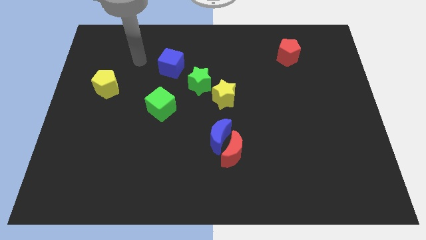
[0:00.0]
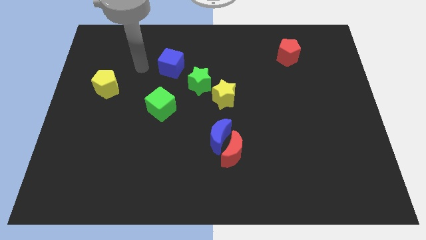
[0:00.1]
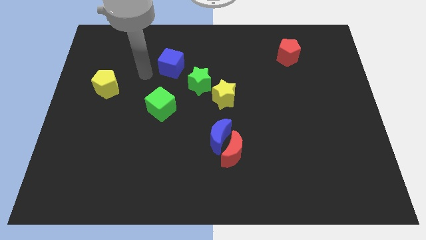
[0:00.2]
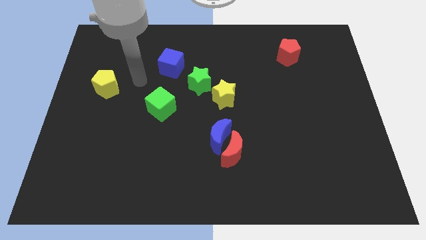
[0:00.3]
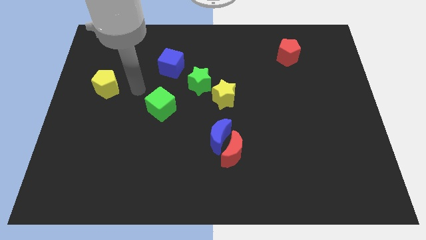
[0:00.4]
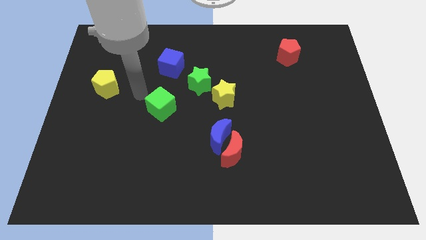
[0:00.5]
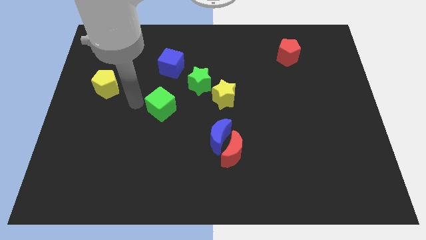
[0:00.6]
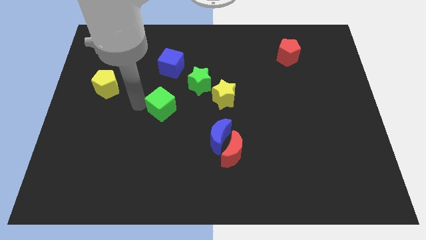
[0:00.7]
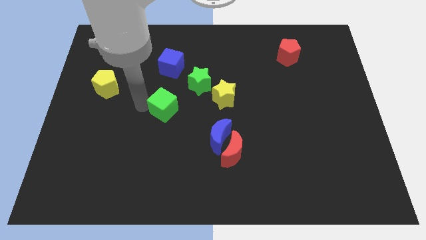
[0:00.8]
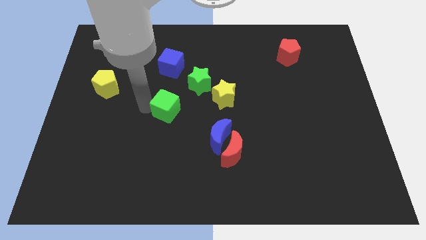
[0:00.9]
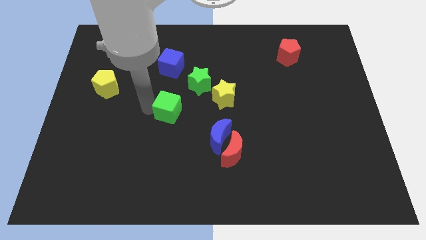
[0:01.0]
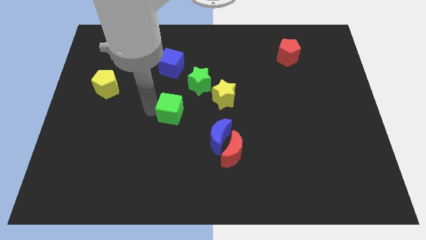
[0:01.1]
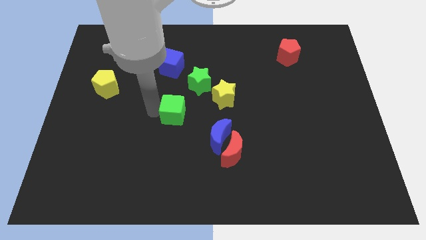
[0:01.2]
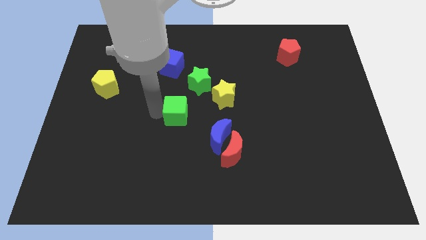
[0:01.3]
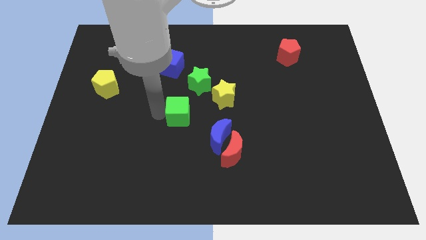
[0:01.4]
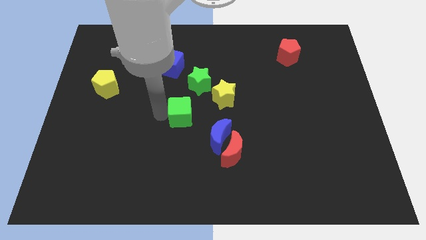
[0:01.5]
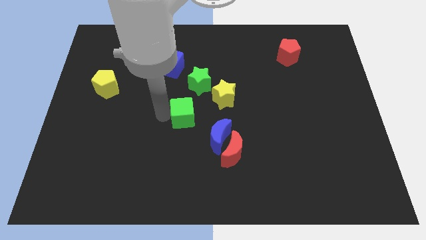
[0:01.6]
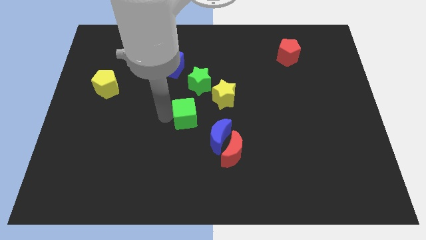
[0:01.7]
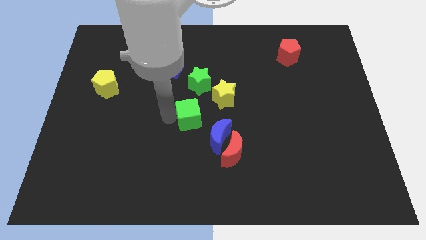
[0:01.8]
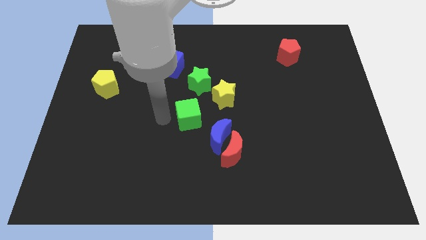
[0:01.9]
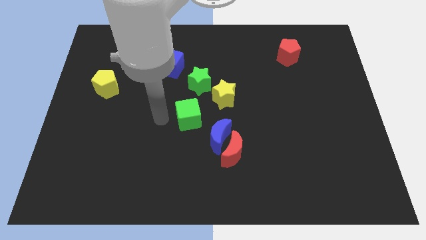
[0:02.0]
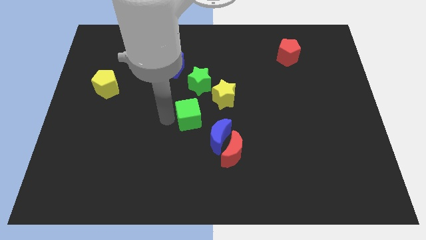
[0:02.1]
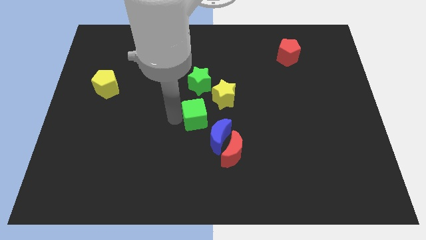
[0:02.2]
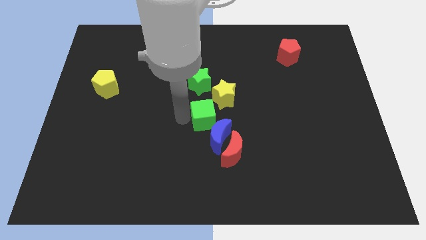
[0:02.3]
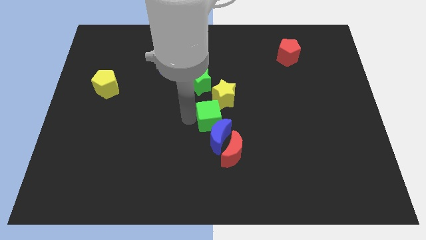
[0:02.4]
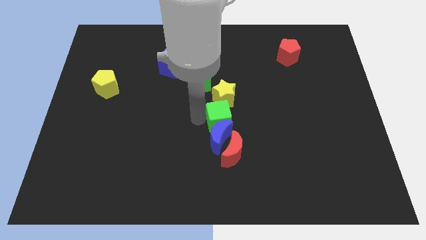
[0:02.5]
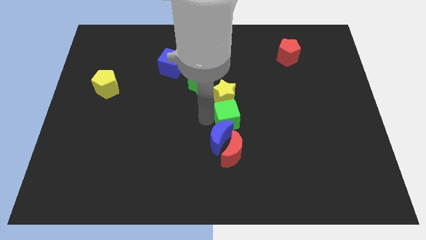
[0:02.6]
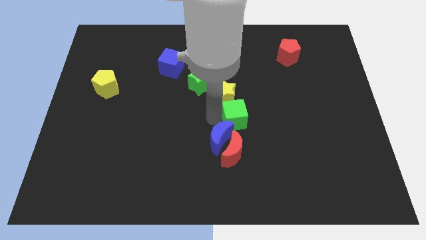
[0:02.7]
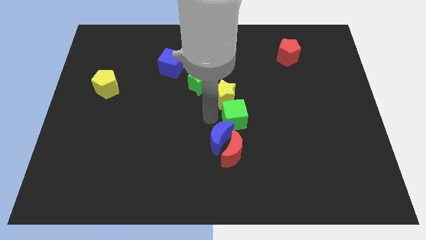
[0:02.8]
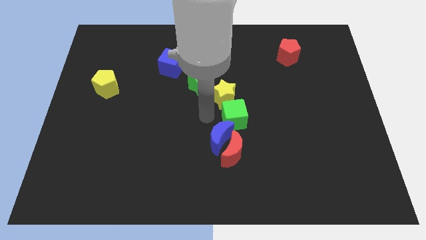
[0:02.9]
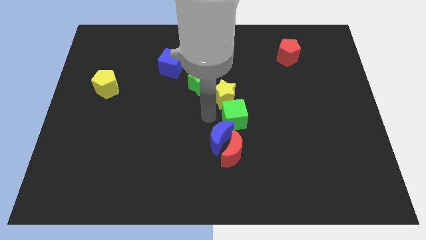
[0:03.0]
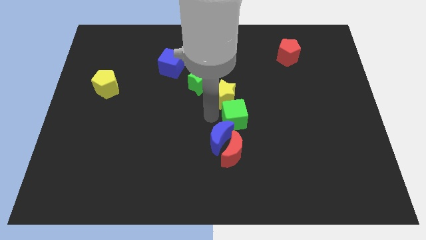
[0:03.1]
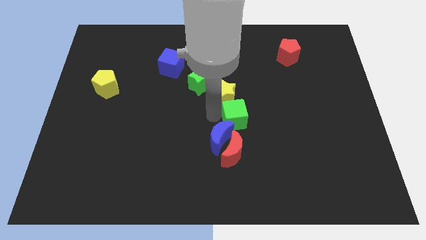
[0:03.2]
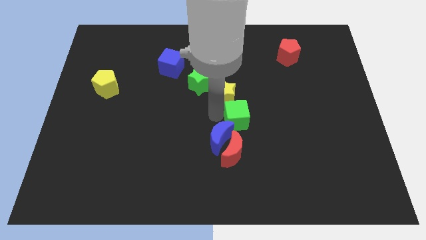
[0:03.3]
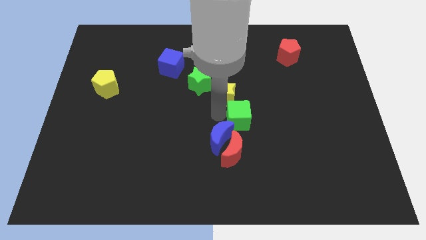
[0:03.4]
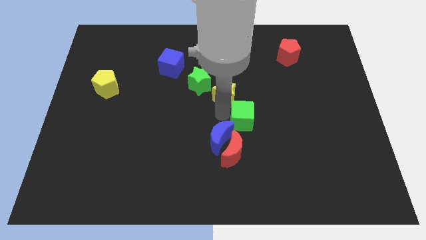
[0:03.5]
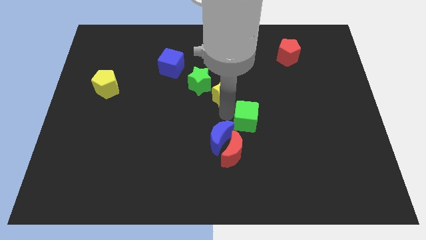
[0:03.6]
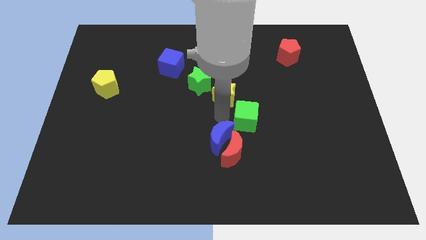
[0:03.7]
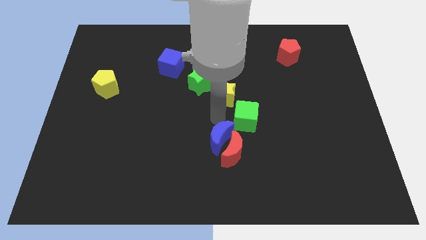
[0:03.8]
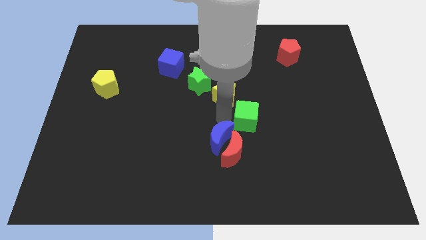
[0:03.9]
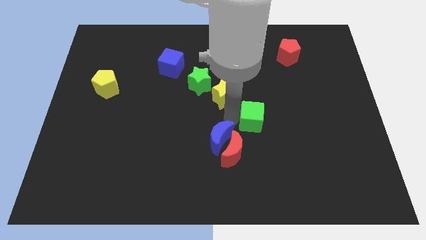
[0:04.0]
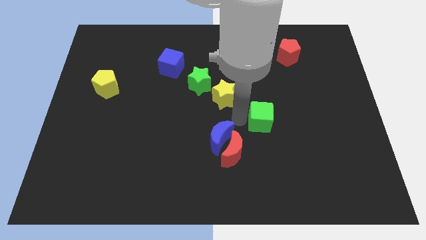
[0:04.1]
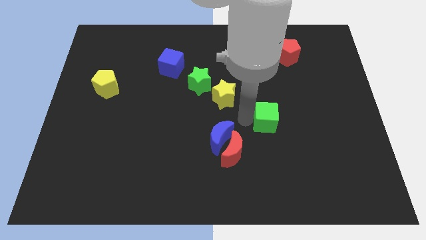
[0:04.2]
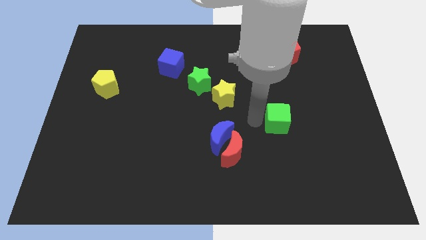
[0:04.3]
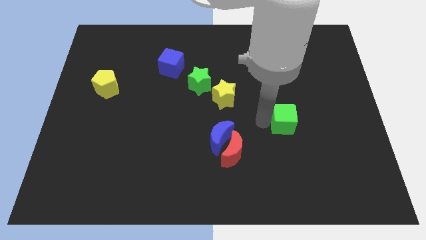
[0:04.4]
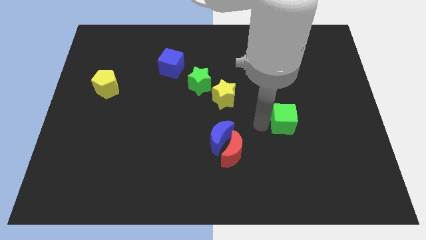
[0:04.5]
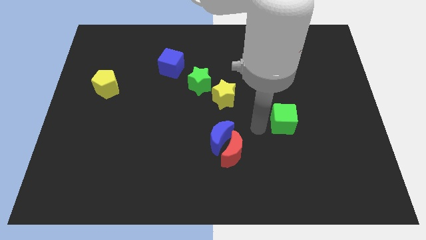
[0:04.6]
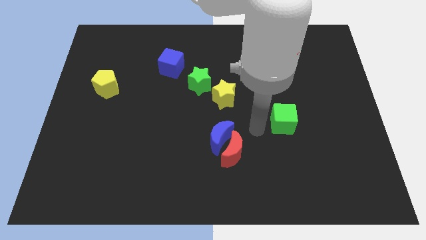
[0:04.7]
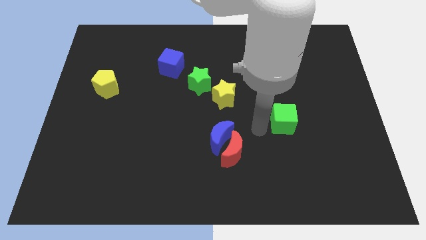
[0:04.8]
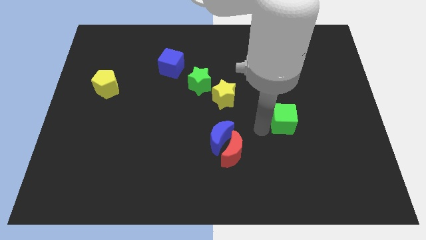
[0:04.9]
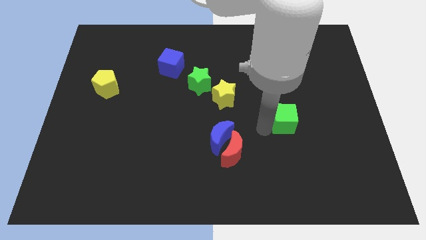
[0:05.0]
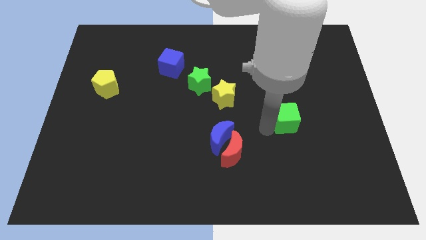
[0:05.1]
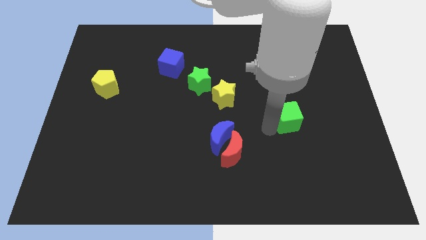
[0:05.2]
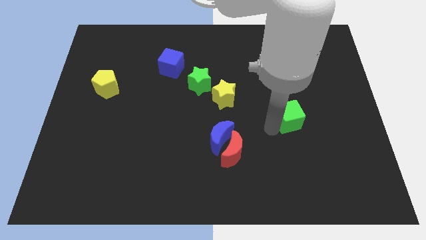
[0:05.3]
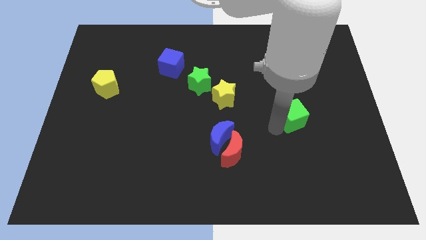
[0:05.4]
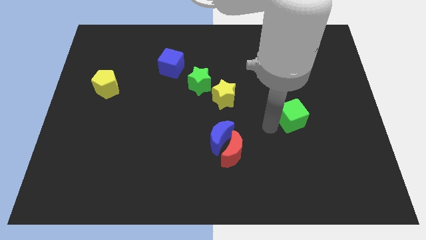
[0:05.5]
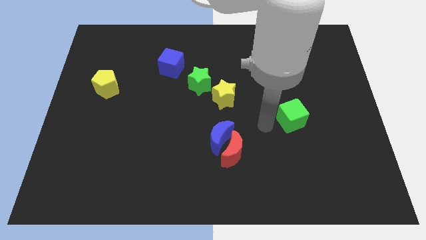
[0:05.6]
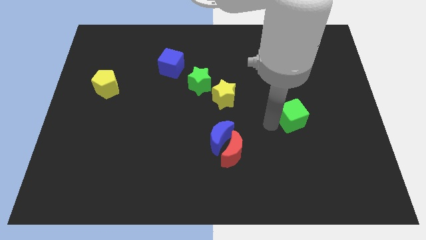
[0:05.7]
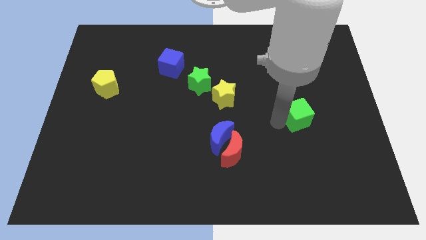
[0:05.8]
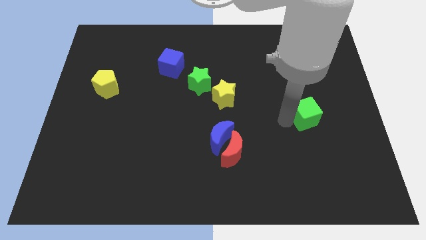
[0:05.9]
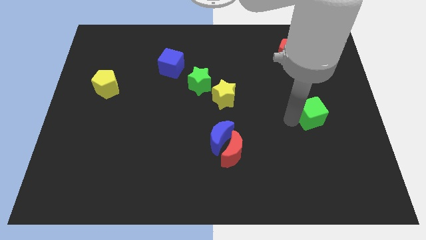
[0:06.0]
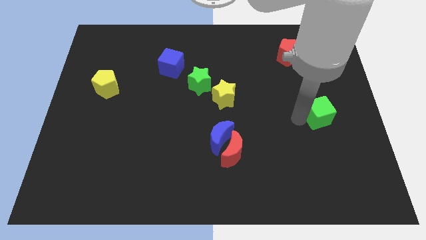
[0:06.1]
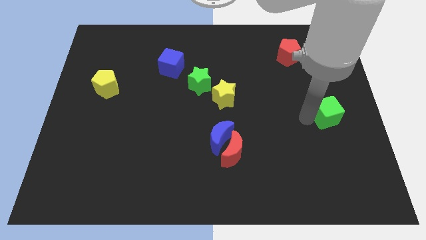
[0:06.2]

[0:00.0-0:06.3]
push the green cube to the center right
